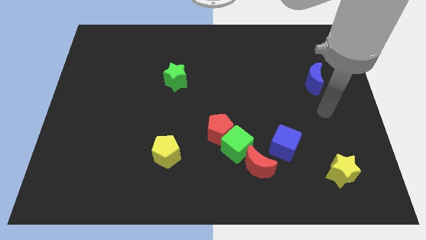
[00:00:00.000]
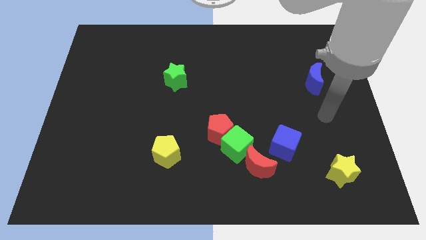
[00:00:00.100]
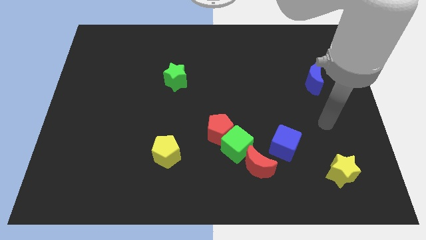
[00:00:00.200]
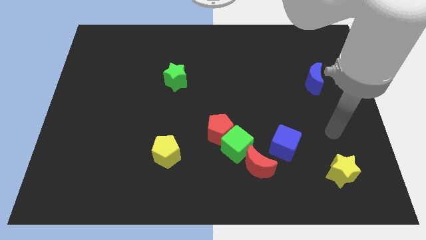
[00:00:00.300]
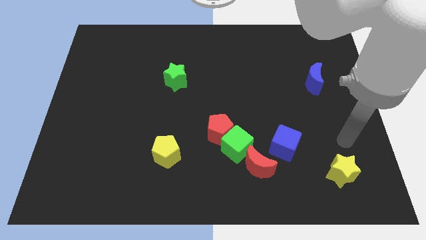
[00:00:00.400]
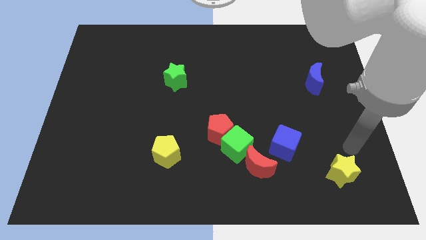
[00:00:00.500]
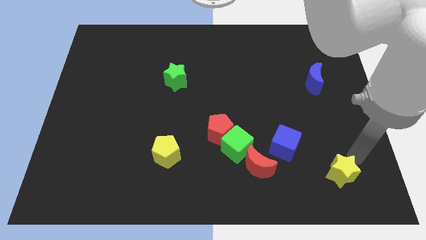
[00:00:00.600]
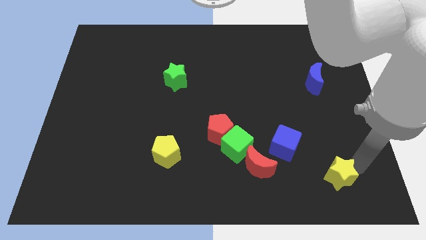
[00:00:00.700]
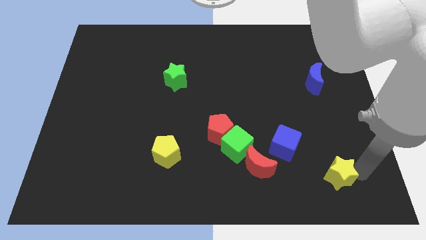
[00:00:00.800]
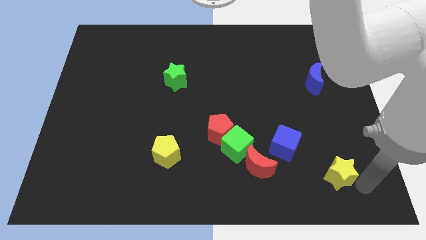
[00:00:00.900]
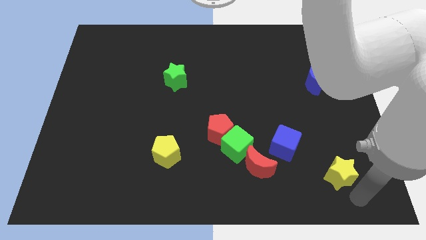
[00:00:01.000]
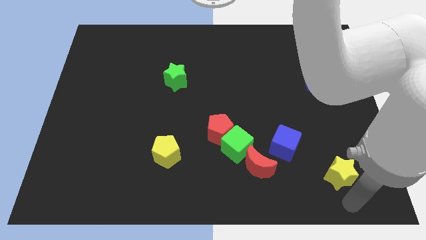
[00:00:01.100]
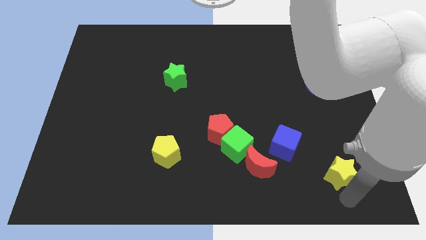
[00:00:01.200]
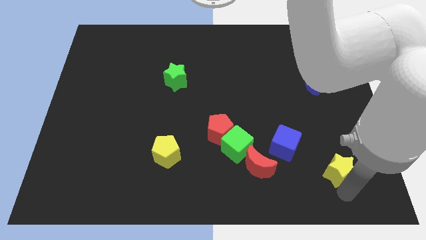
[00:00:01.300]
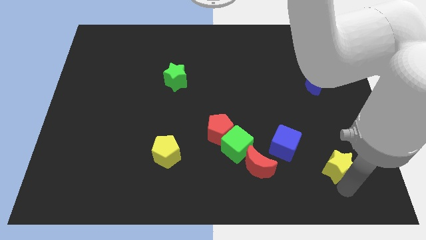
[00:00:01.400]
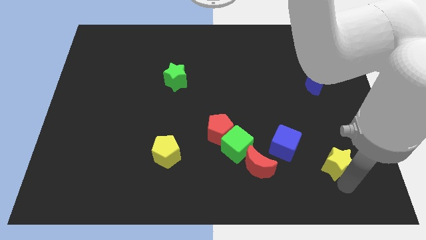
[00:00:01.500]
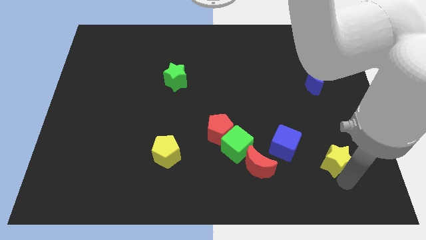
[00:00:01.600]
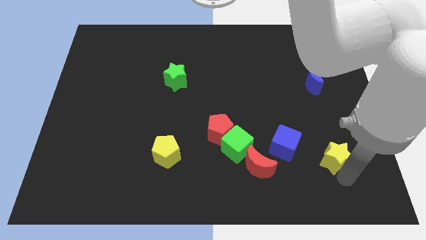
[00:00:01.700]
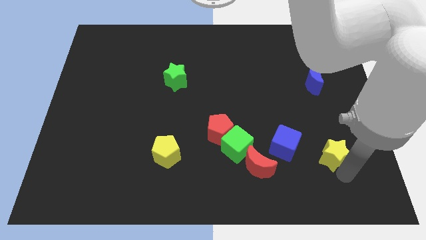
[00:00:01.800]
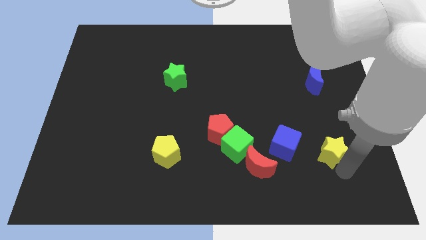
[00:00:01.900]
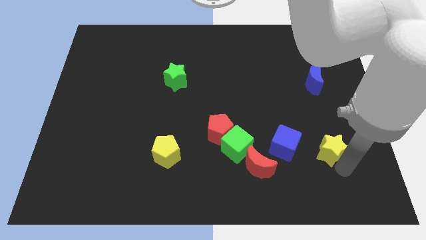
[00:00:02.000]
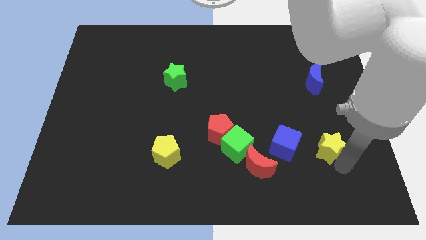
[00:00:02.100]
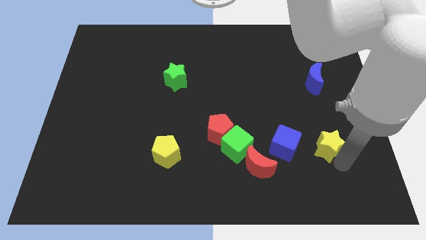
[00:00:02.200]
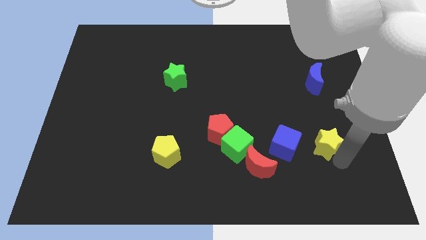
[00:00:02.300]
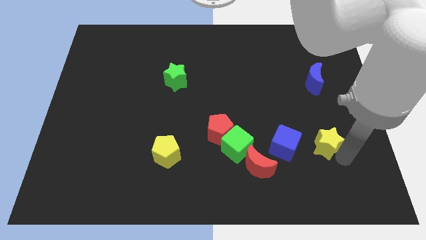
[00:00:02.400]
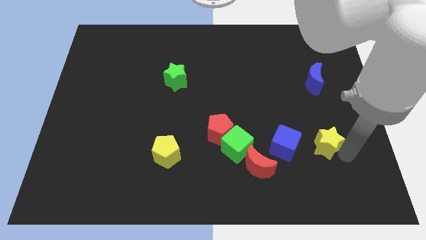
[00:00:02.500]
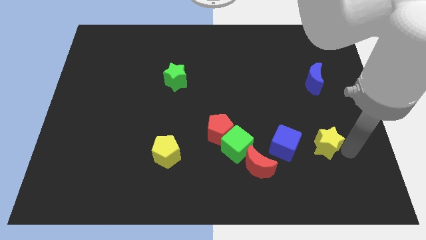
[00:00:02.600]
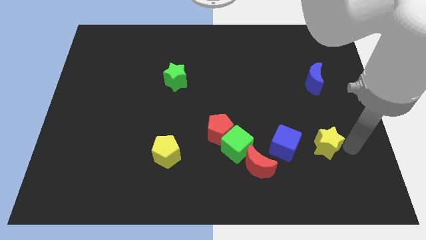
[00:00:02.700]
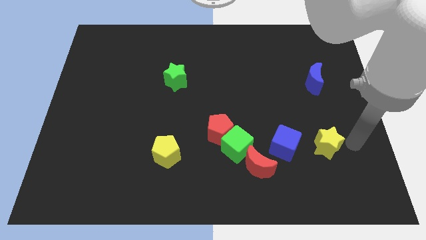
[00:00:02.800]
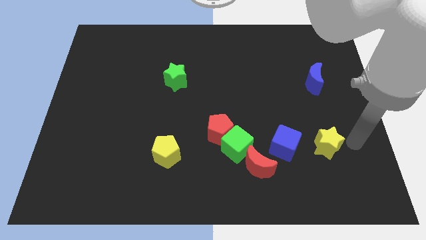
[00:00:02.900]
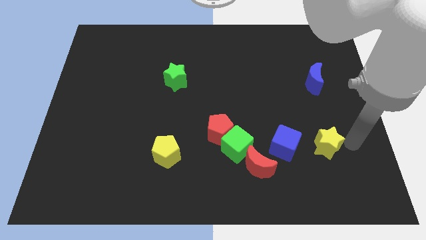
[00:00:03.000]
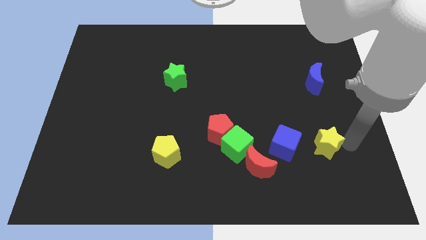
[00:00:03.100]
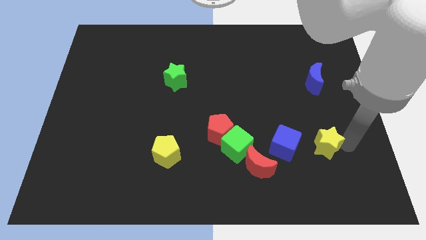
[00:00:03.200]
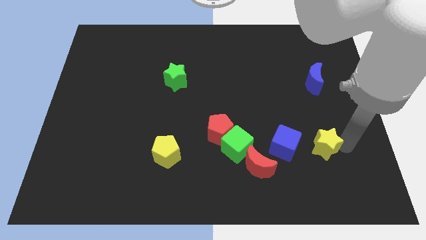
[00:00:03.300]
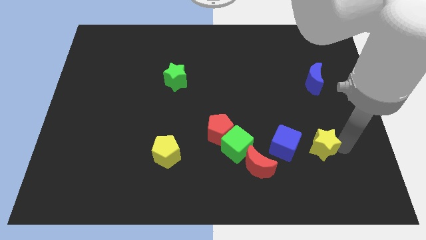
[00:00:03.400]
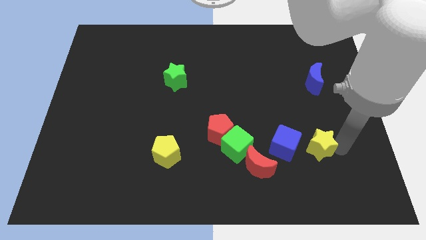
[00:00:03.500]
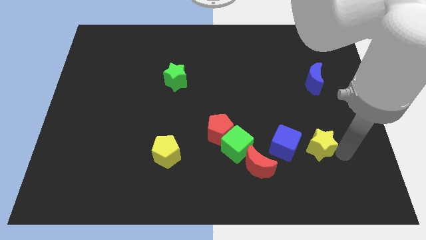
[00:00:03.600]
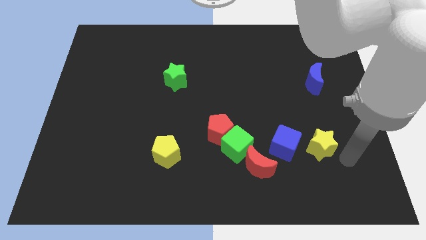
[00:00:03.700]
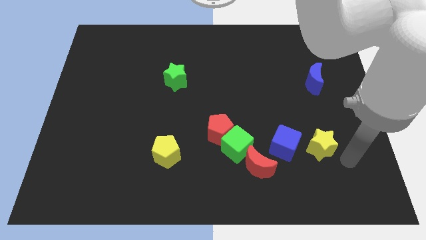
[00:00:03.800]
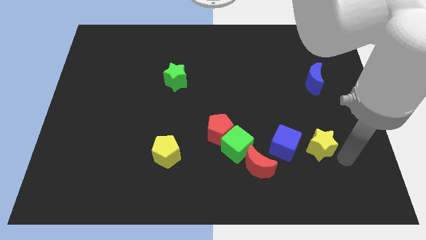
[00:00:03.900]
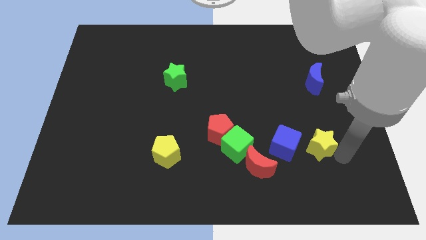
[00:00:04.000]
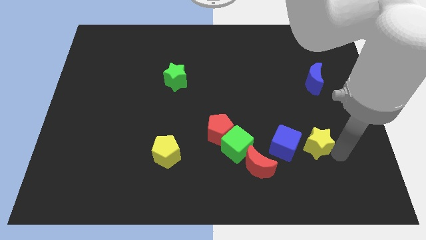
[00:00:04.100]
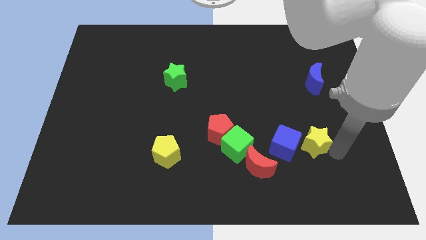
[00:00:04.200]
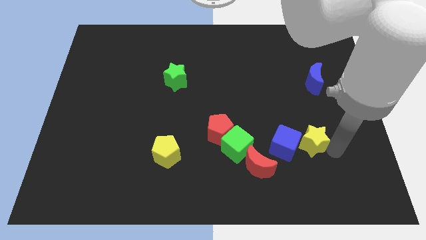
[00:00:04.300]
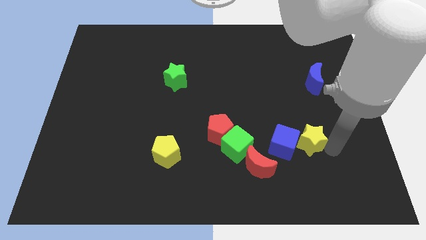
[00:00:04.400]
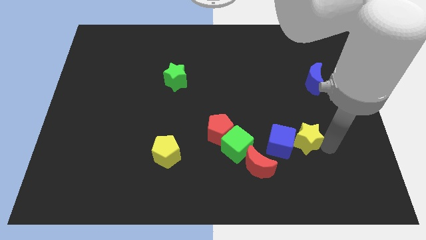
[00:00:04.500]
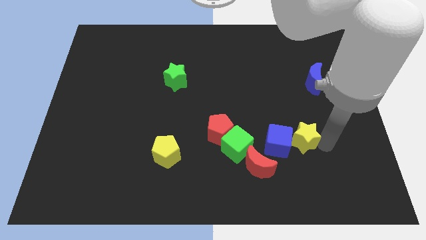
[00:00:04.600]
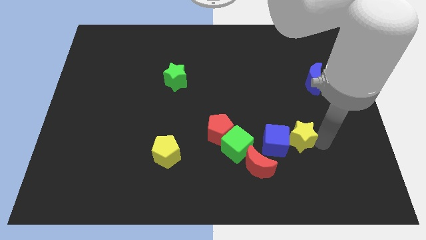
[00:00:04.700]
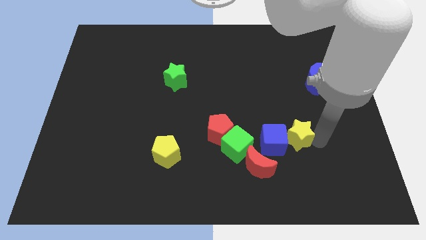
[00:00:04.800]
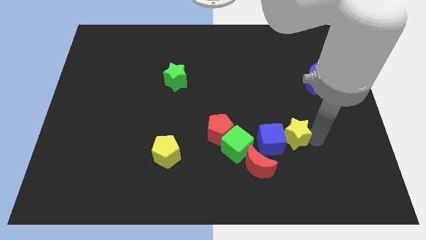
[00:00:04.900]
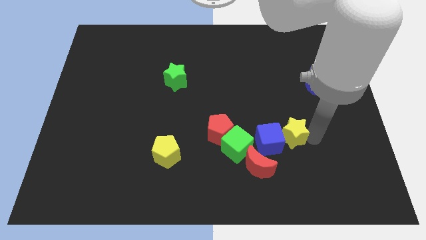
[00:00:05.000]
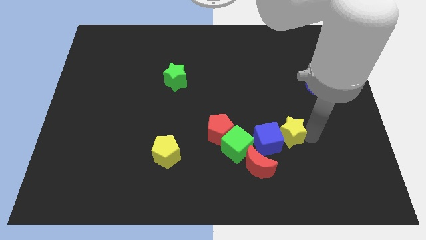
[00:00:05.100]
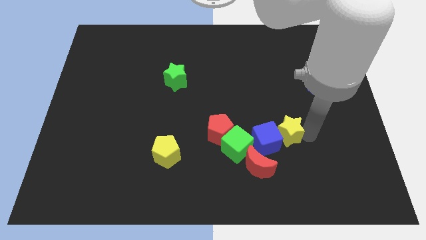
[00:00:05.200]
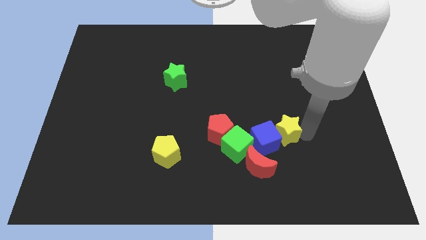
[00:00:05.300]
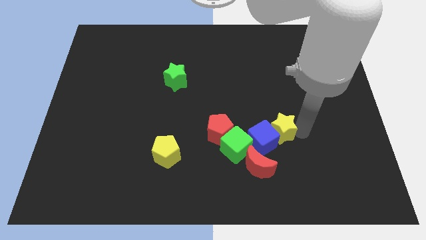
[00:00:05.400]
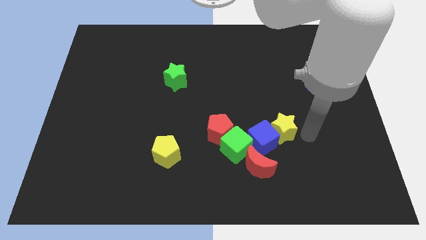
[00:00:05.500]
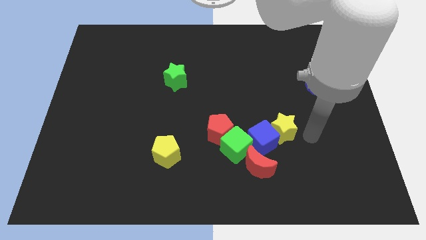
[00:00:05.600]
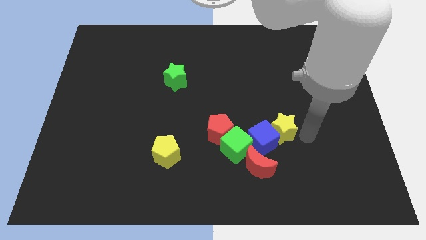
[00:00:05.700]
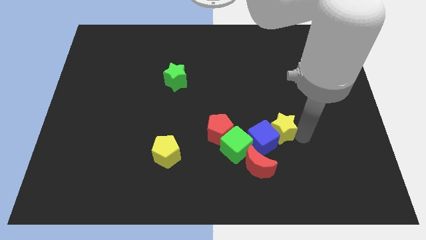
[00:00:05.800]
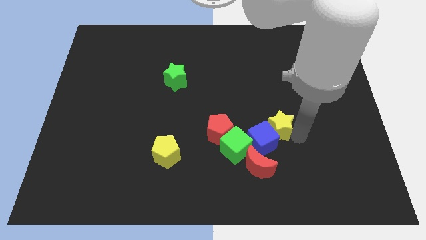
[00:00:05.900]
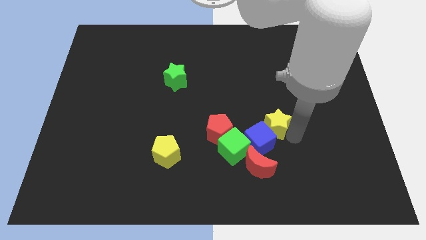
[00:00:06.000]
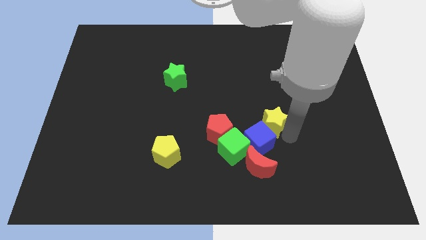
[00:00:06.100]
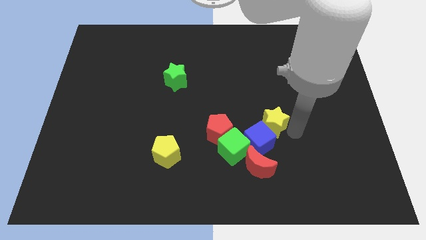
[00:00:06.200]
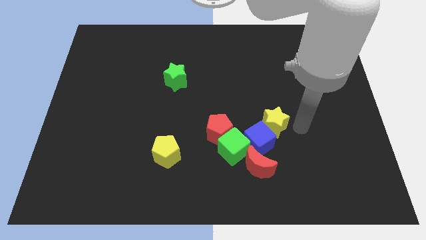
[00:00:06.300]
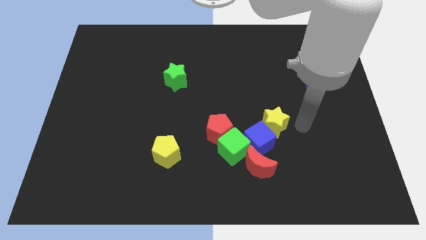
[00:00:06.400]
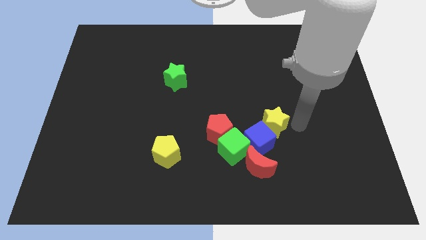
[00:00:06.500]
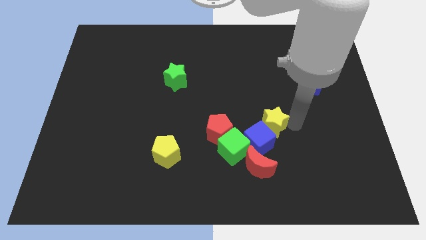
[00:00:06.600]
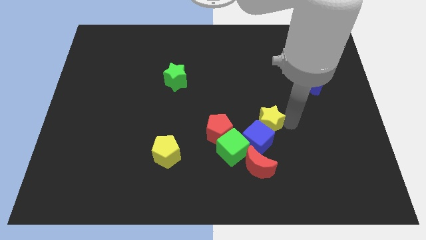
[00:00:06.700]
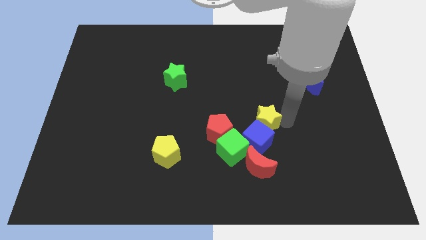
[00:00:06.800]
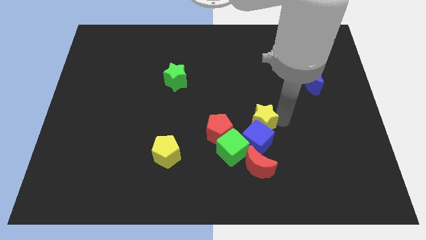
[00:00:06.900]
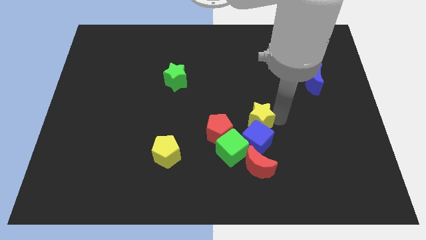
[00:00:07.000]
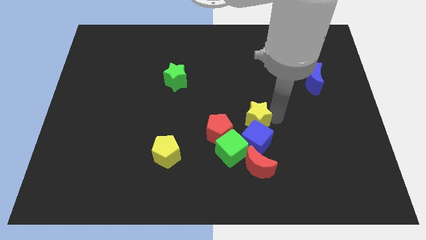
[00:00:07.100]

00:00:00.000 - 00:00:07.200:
slide the yellow star to the top left side of the blue cube

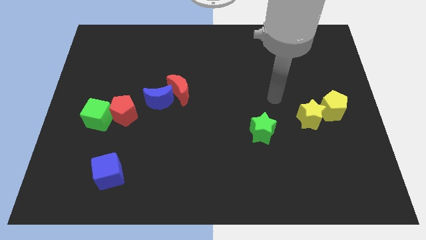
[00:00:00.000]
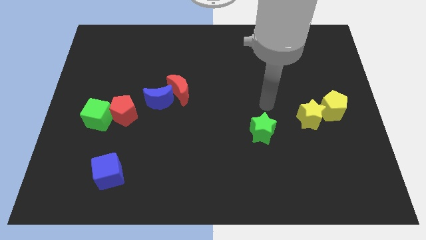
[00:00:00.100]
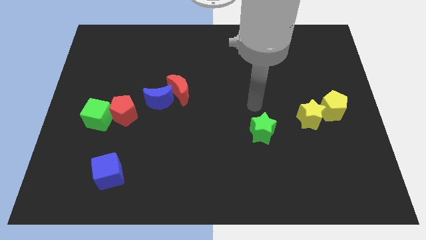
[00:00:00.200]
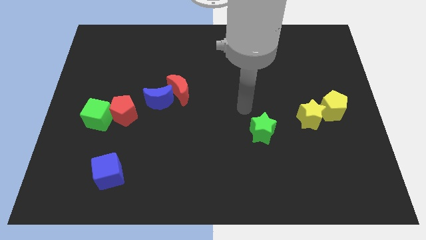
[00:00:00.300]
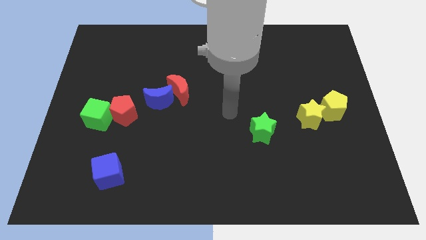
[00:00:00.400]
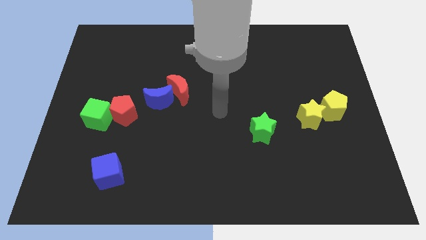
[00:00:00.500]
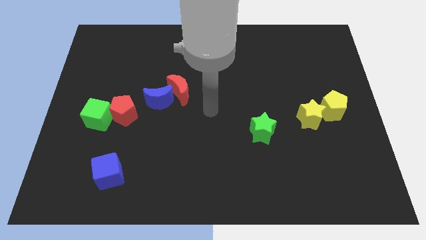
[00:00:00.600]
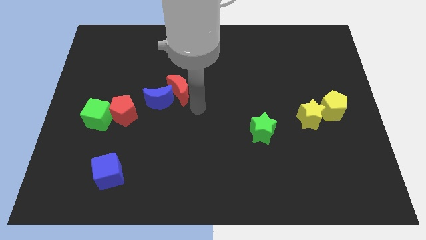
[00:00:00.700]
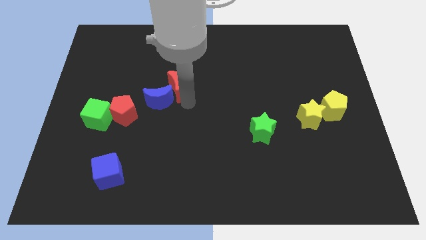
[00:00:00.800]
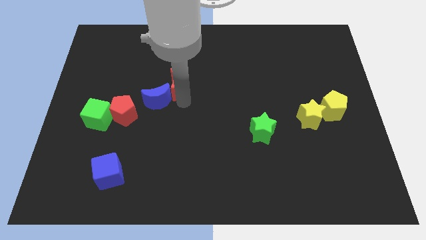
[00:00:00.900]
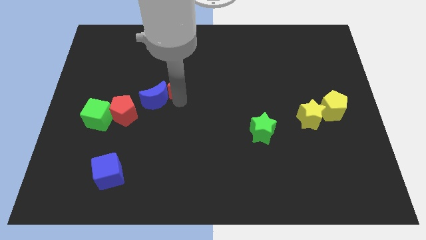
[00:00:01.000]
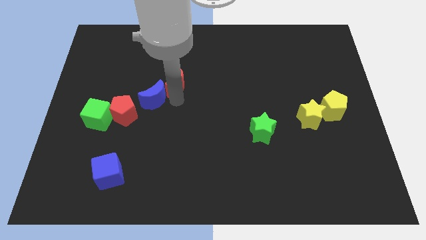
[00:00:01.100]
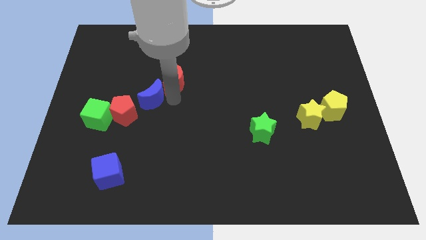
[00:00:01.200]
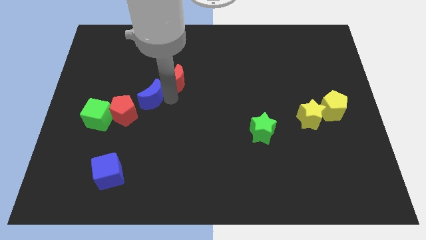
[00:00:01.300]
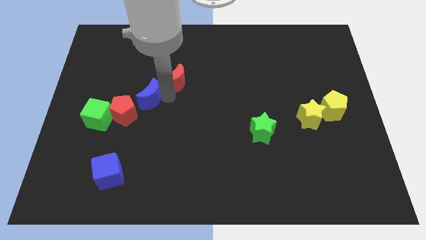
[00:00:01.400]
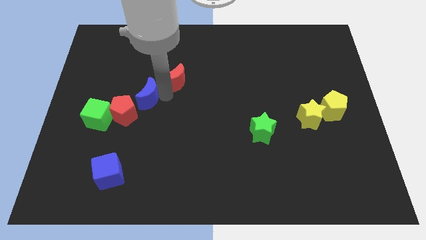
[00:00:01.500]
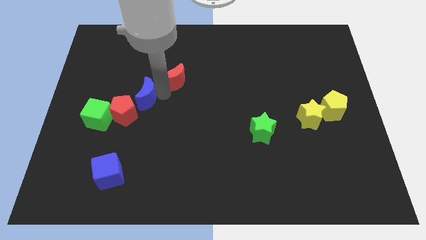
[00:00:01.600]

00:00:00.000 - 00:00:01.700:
move the blue moon diagonally up and to the right of the green cube
